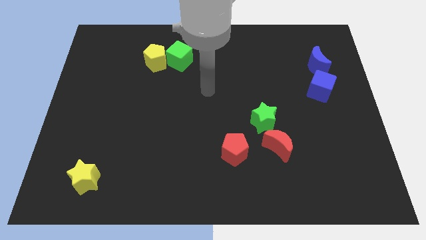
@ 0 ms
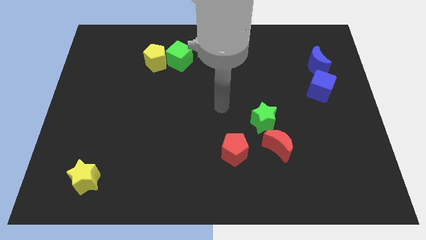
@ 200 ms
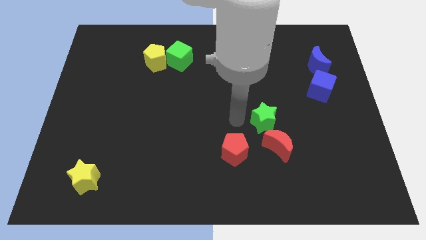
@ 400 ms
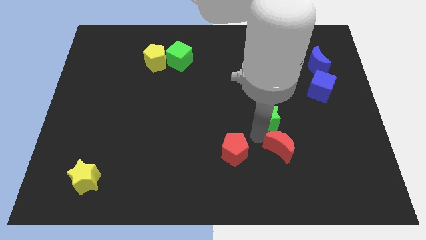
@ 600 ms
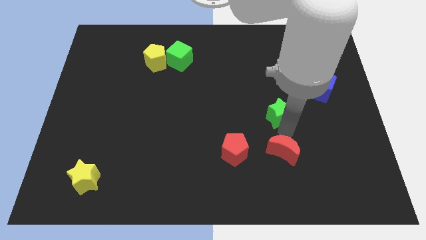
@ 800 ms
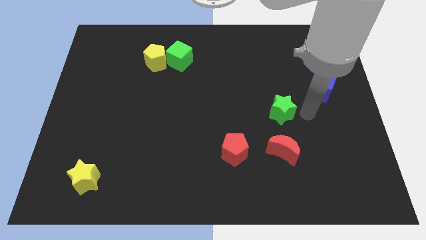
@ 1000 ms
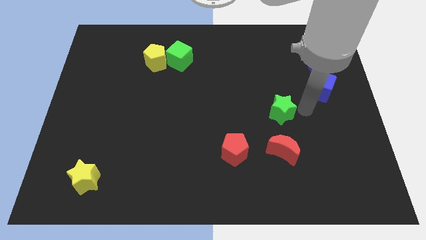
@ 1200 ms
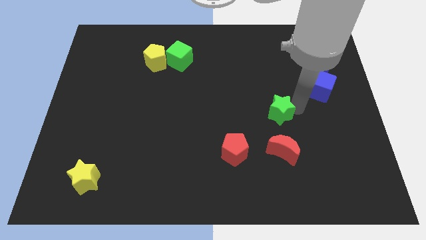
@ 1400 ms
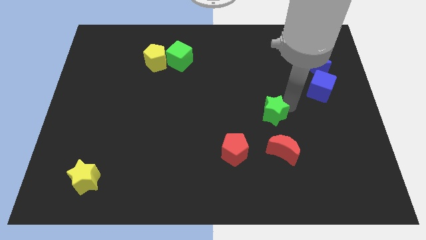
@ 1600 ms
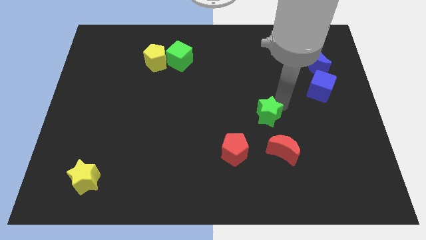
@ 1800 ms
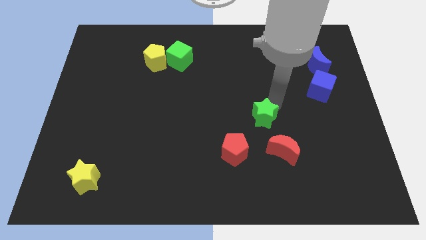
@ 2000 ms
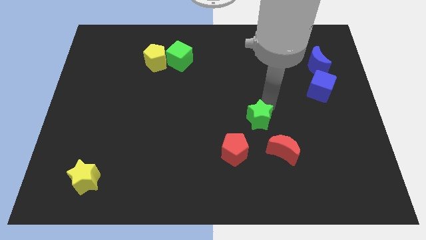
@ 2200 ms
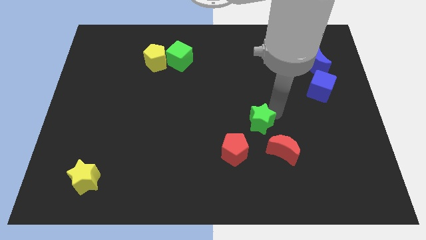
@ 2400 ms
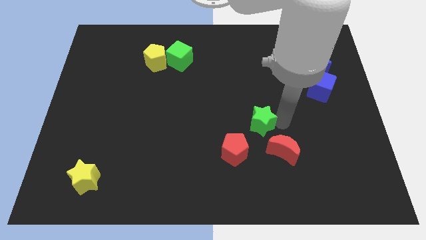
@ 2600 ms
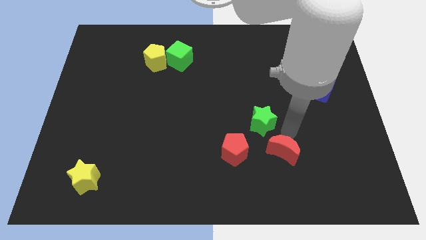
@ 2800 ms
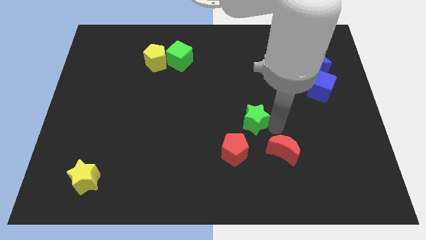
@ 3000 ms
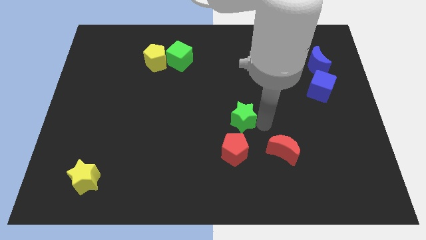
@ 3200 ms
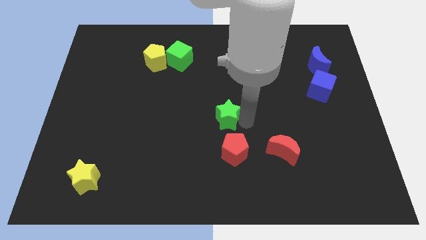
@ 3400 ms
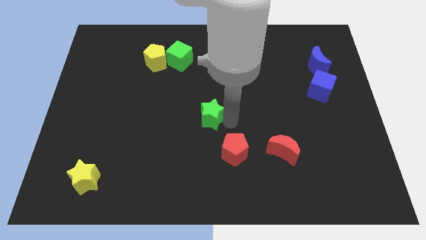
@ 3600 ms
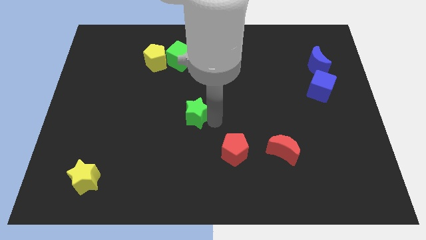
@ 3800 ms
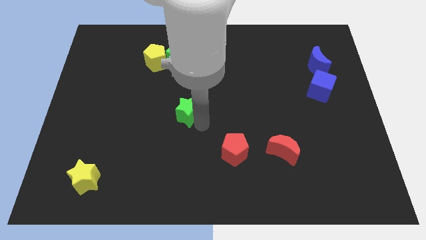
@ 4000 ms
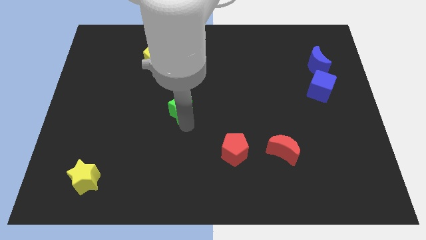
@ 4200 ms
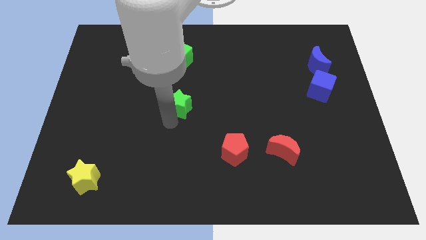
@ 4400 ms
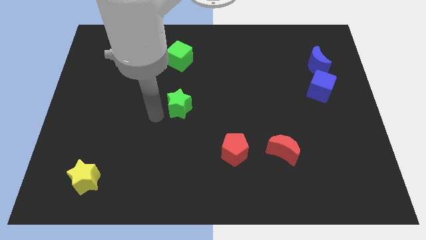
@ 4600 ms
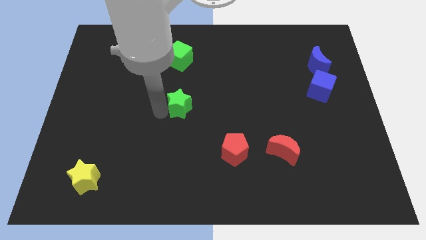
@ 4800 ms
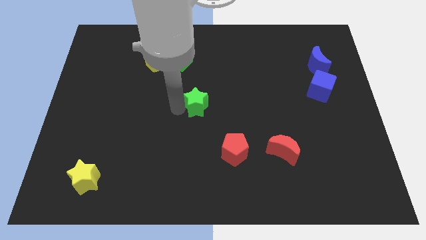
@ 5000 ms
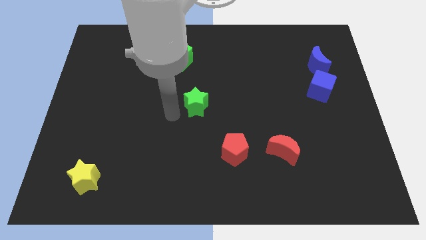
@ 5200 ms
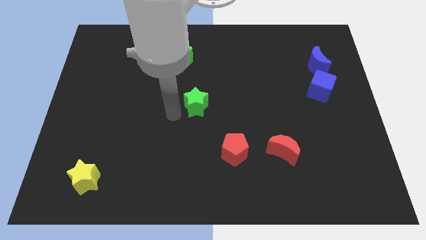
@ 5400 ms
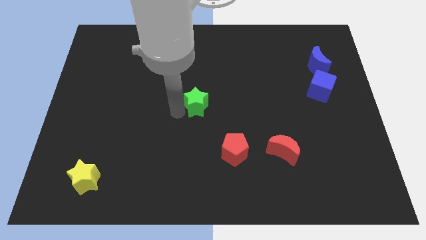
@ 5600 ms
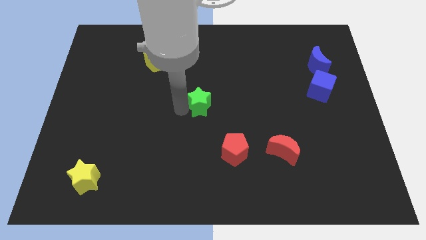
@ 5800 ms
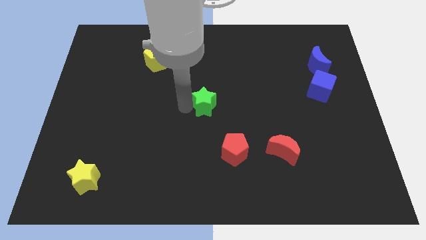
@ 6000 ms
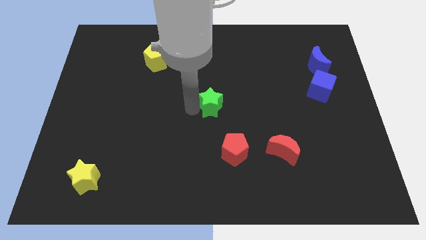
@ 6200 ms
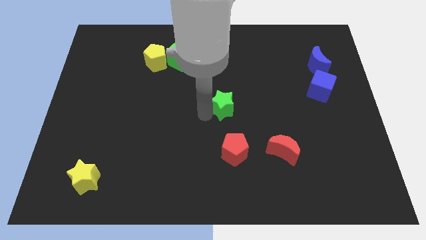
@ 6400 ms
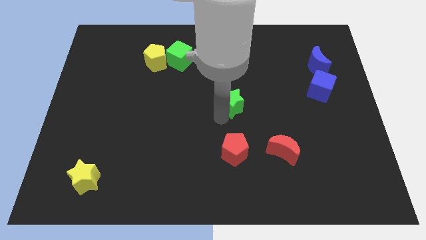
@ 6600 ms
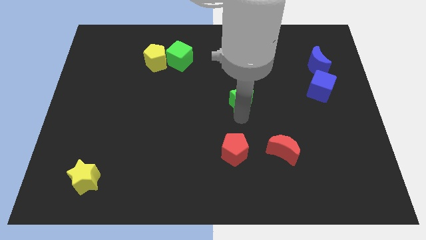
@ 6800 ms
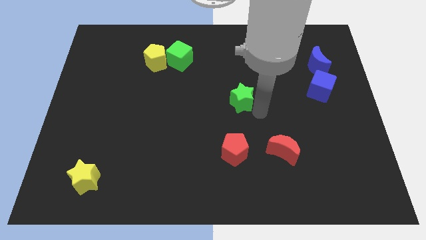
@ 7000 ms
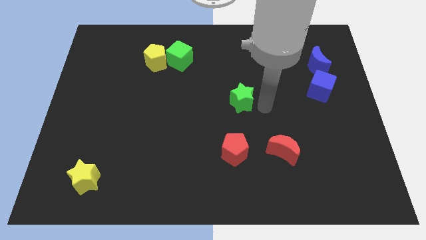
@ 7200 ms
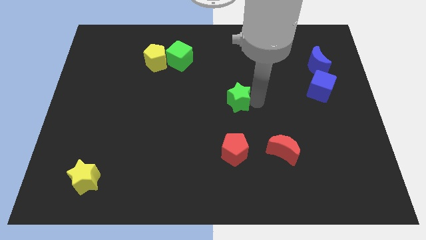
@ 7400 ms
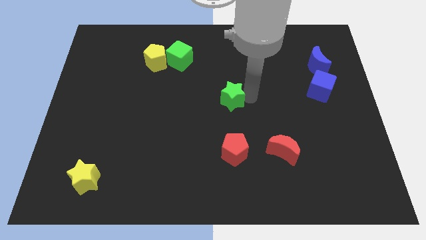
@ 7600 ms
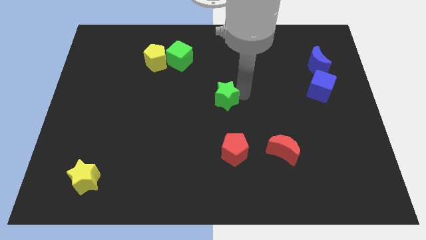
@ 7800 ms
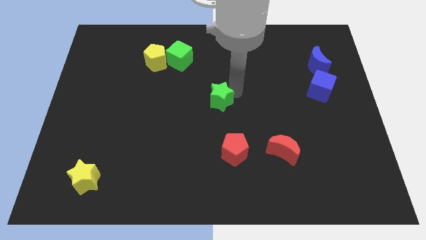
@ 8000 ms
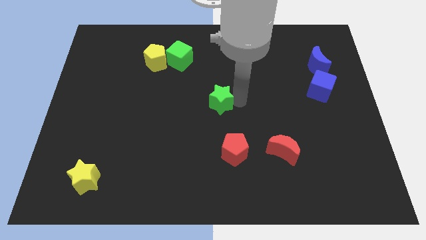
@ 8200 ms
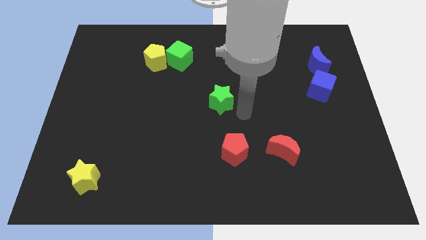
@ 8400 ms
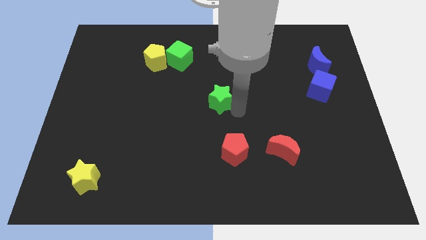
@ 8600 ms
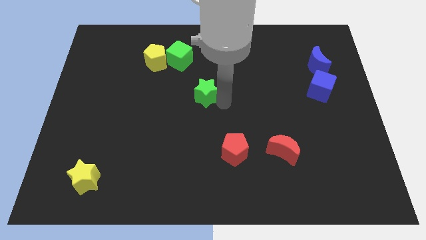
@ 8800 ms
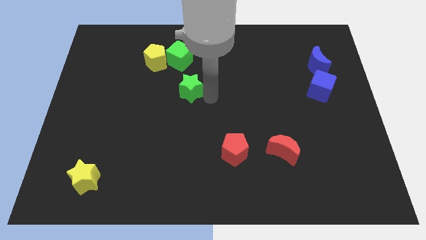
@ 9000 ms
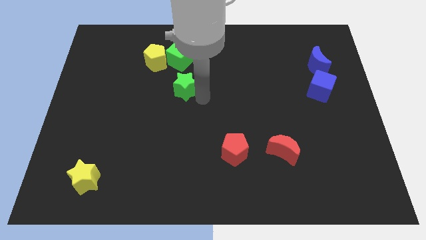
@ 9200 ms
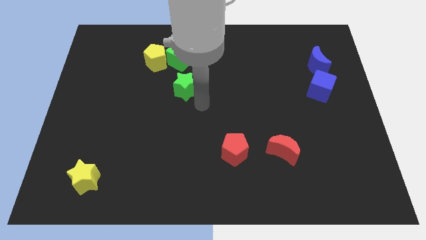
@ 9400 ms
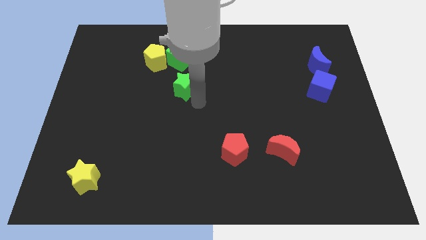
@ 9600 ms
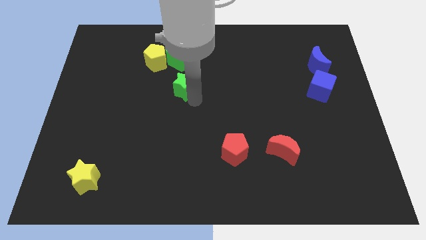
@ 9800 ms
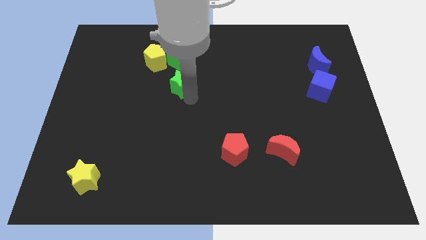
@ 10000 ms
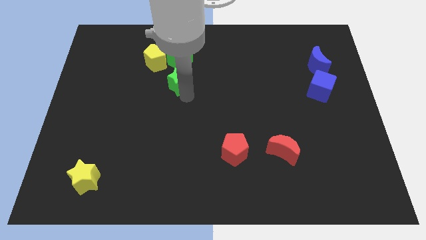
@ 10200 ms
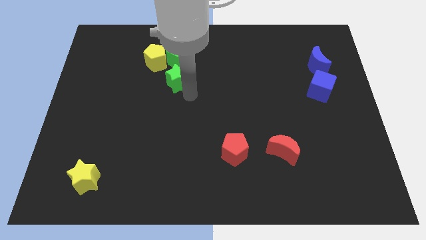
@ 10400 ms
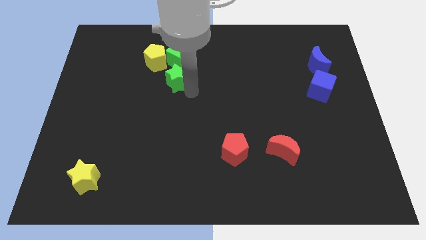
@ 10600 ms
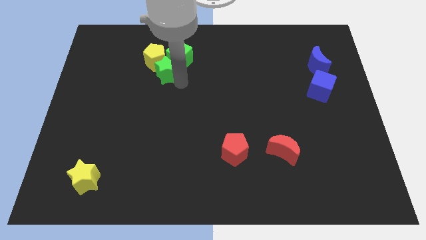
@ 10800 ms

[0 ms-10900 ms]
push the green star close to the yellow pentagon

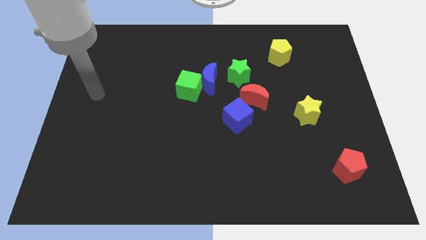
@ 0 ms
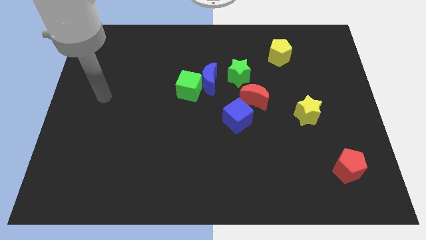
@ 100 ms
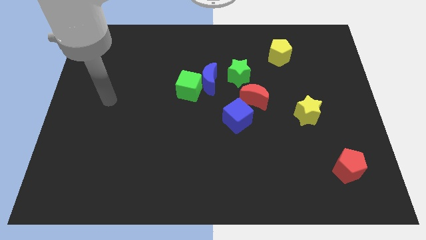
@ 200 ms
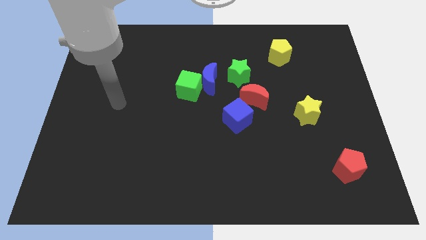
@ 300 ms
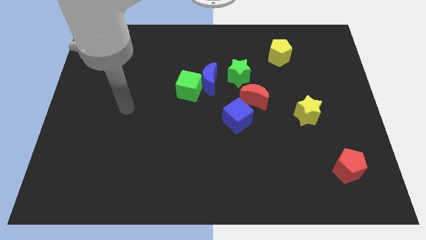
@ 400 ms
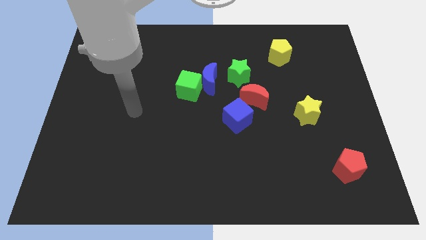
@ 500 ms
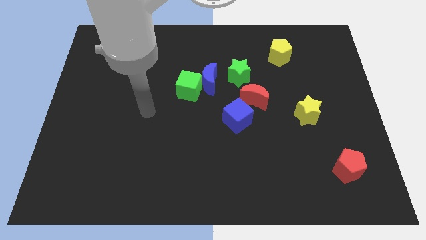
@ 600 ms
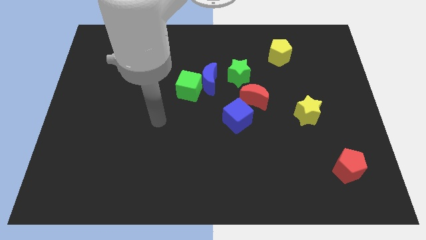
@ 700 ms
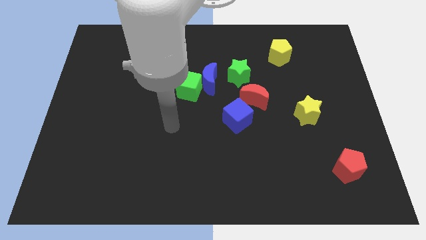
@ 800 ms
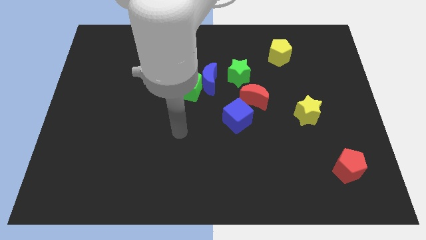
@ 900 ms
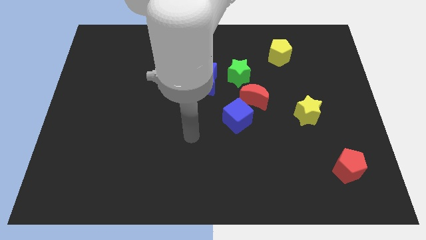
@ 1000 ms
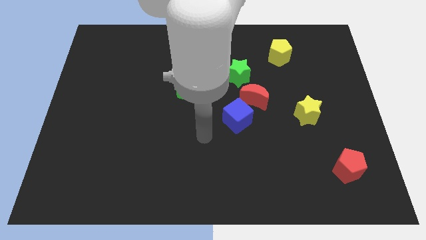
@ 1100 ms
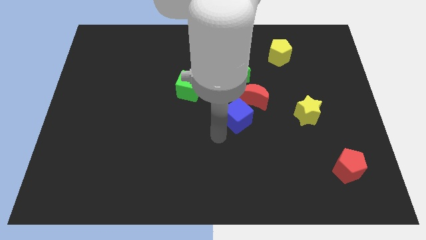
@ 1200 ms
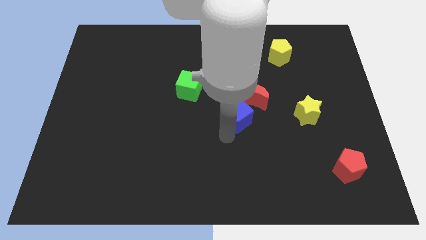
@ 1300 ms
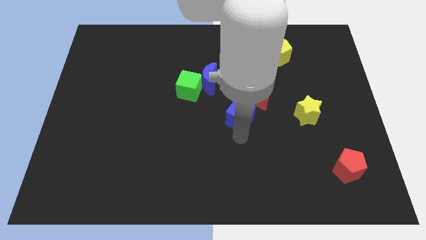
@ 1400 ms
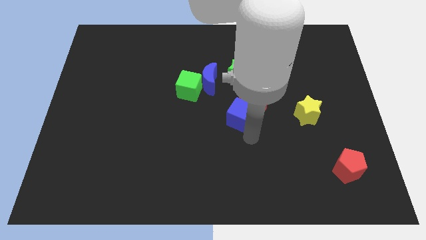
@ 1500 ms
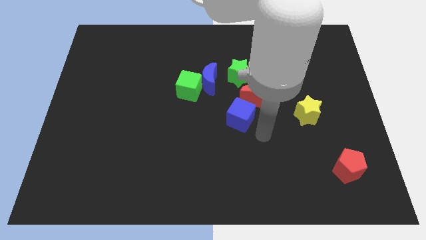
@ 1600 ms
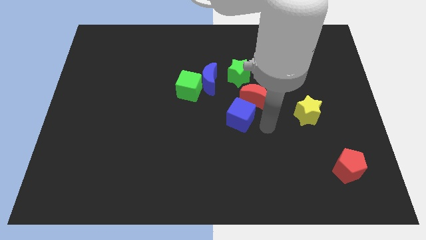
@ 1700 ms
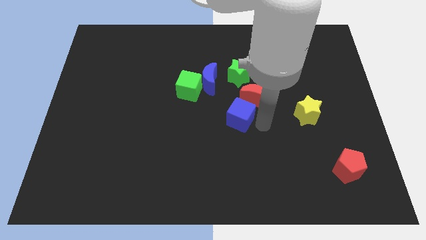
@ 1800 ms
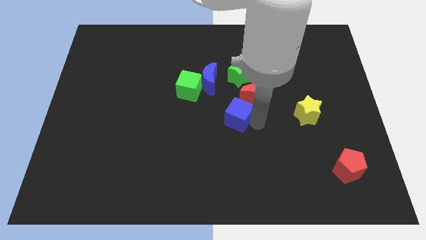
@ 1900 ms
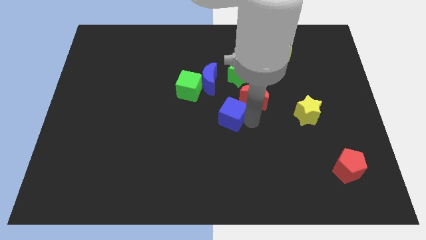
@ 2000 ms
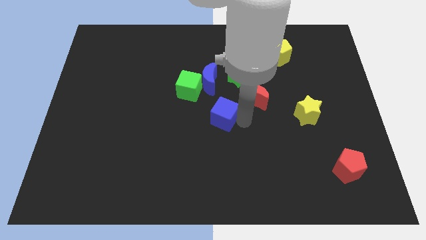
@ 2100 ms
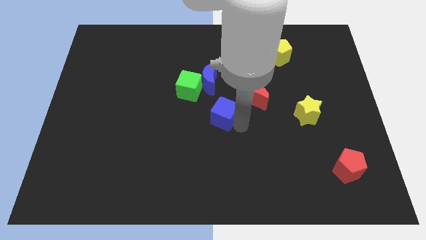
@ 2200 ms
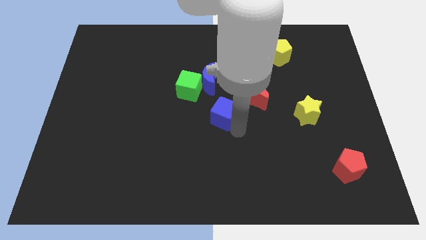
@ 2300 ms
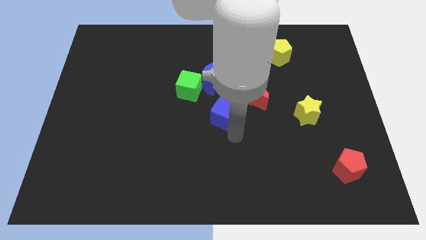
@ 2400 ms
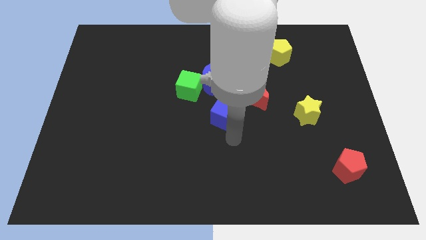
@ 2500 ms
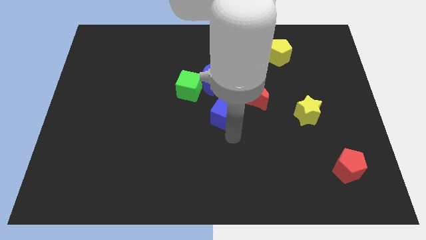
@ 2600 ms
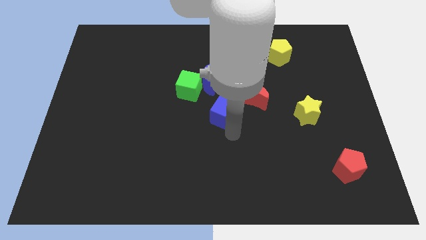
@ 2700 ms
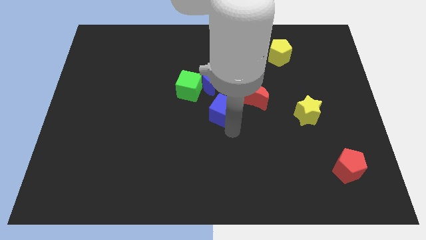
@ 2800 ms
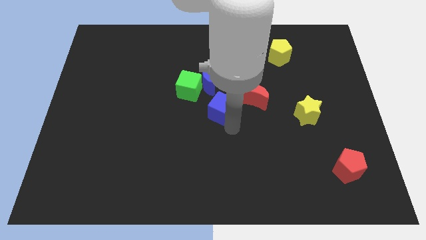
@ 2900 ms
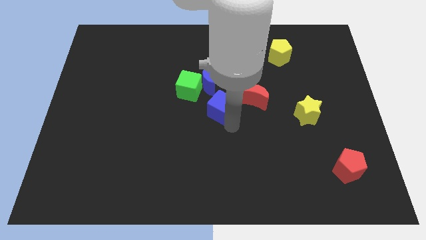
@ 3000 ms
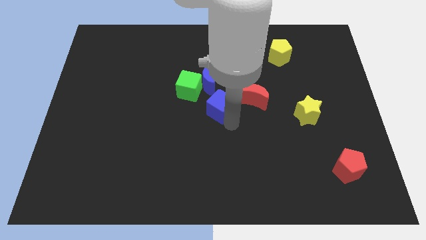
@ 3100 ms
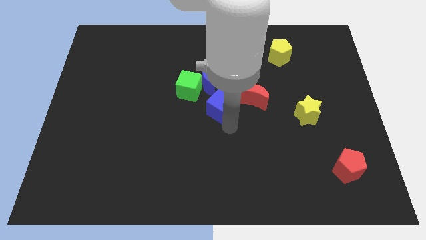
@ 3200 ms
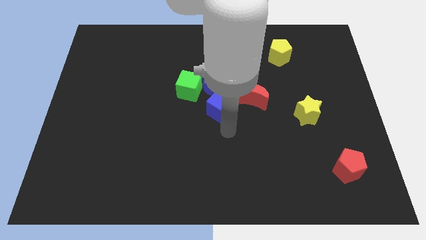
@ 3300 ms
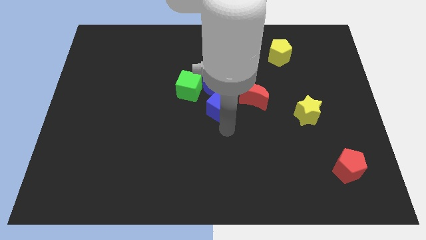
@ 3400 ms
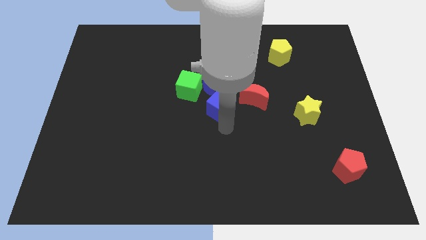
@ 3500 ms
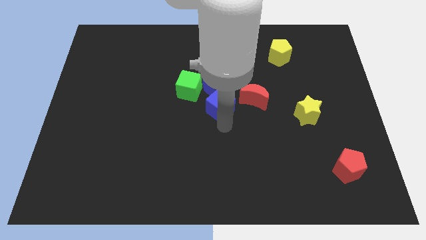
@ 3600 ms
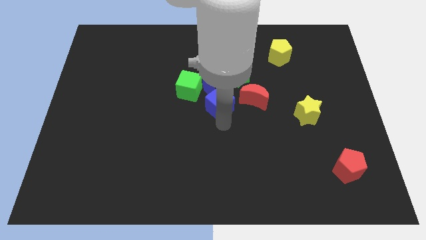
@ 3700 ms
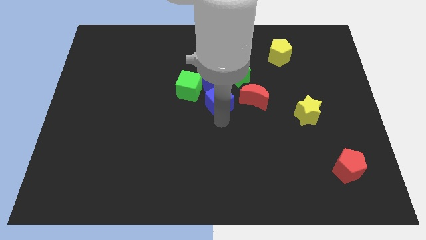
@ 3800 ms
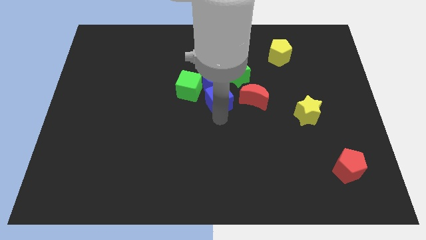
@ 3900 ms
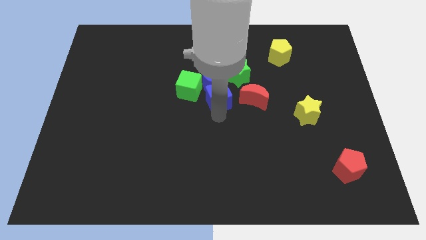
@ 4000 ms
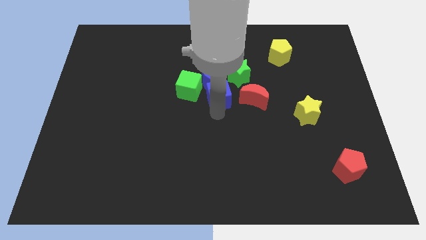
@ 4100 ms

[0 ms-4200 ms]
move the blue cube next to the blue moon
